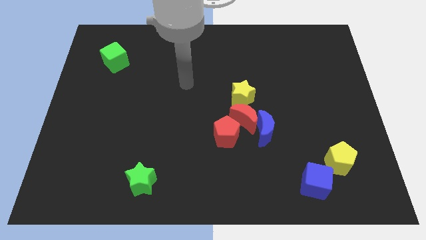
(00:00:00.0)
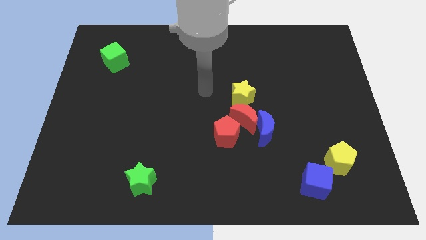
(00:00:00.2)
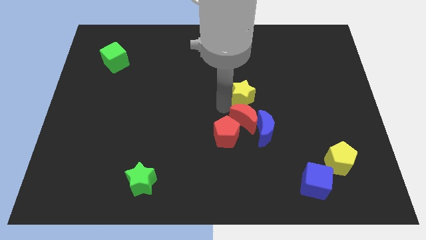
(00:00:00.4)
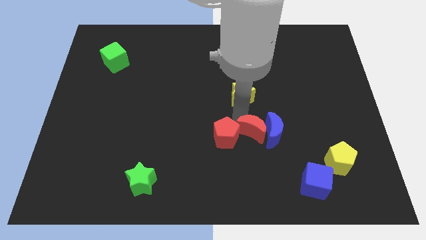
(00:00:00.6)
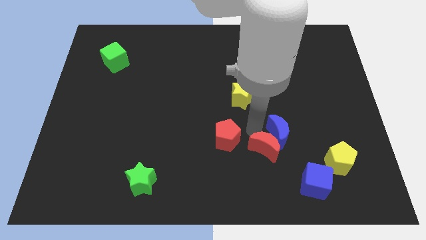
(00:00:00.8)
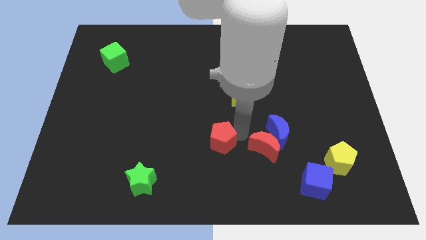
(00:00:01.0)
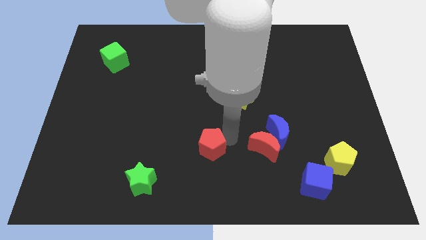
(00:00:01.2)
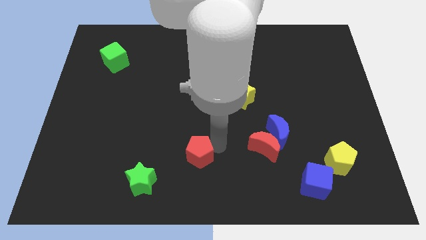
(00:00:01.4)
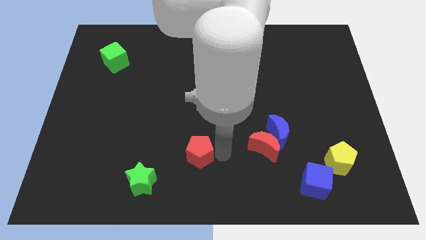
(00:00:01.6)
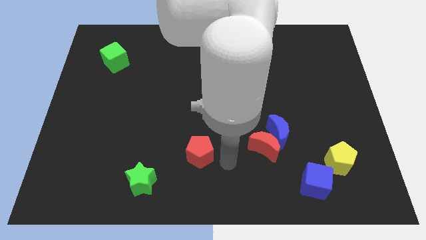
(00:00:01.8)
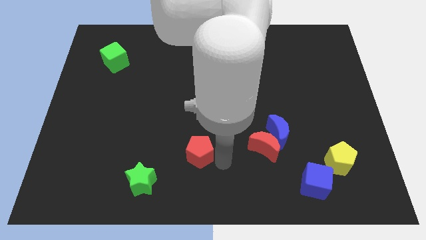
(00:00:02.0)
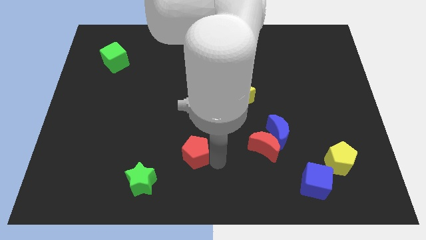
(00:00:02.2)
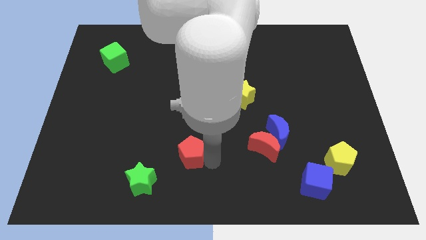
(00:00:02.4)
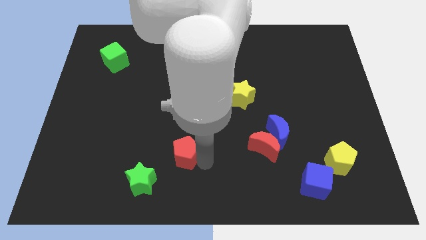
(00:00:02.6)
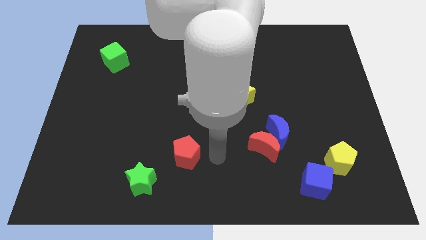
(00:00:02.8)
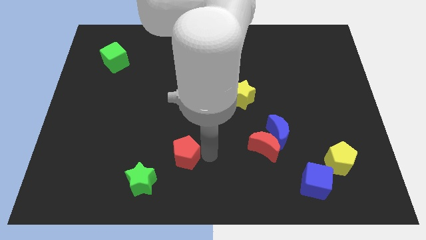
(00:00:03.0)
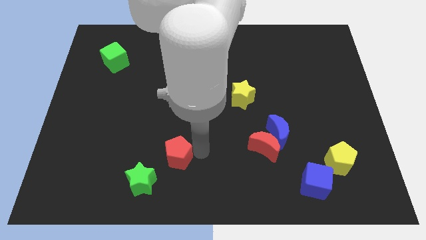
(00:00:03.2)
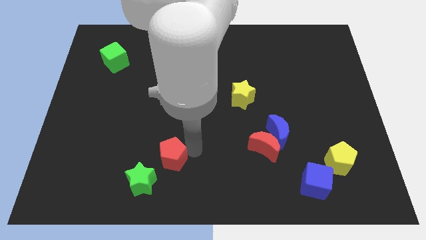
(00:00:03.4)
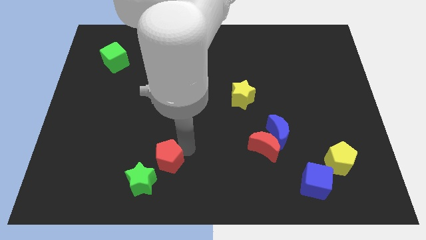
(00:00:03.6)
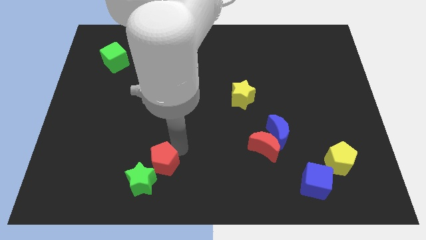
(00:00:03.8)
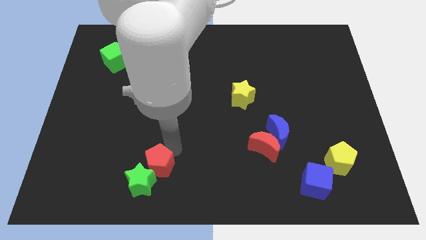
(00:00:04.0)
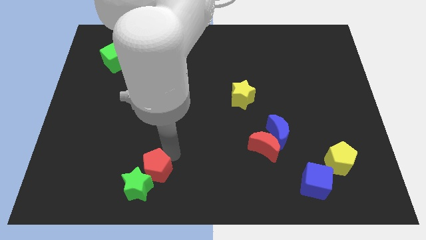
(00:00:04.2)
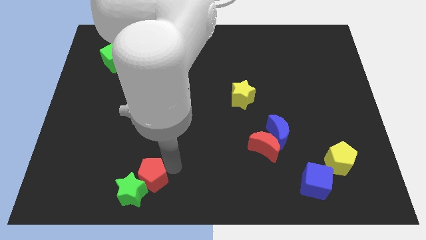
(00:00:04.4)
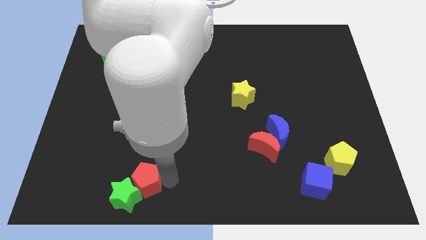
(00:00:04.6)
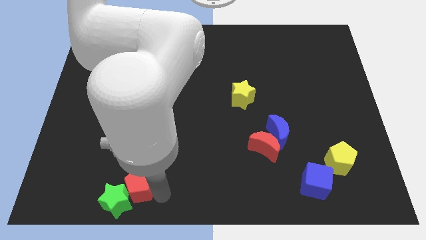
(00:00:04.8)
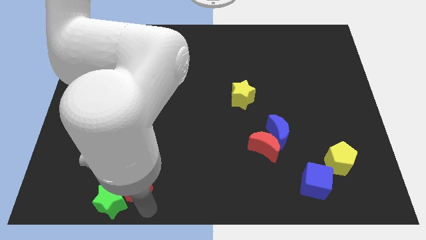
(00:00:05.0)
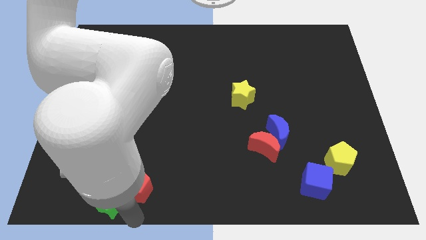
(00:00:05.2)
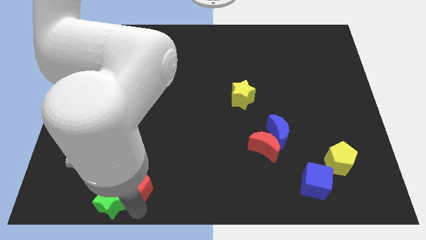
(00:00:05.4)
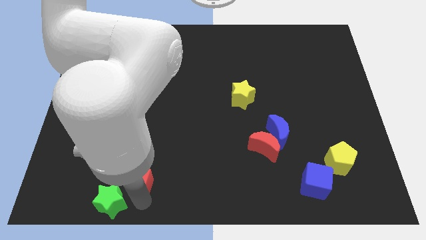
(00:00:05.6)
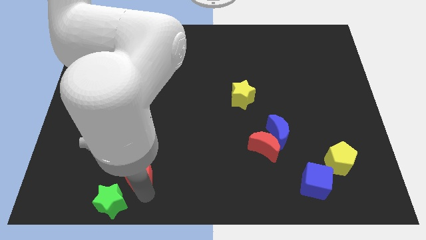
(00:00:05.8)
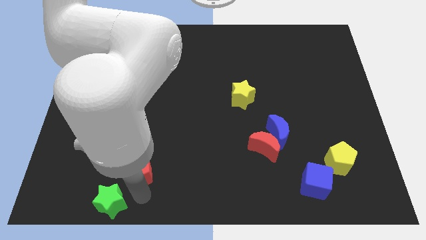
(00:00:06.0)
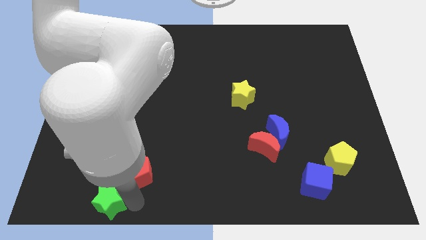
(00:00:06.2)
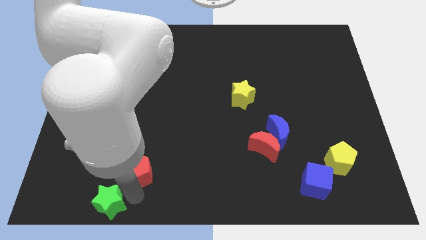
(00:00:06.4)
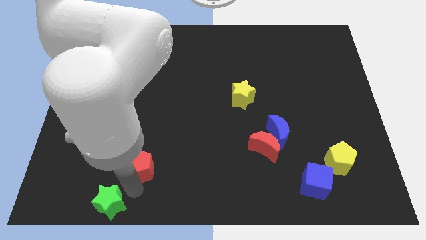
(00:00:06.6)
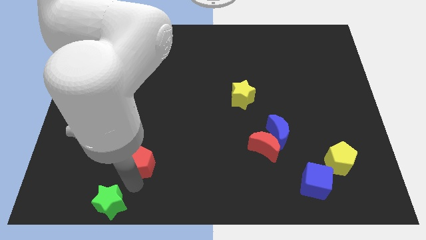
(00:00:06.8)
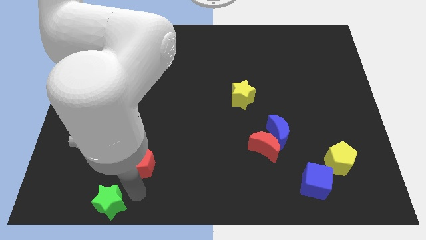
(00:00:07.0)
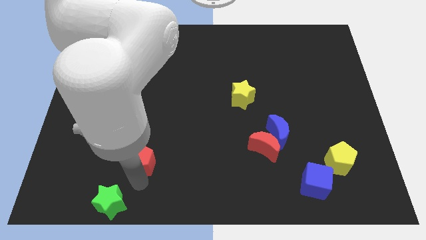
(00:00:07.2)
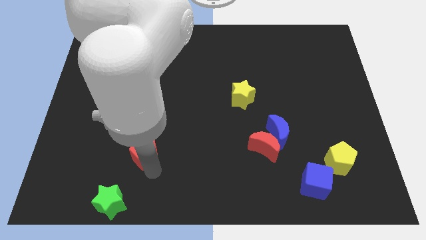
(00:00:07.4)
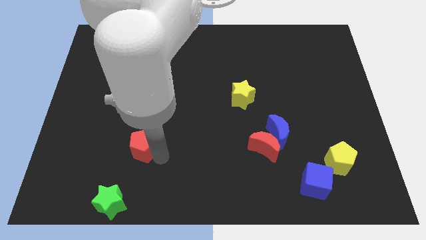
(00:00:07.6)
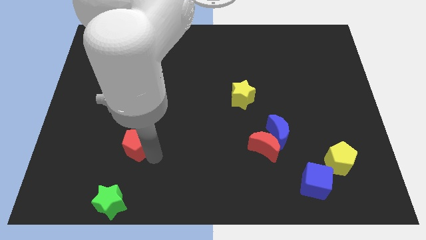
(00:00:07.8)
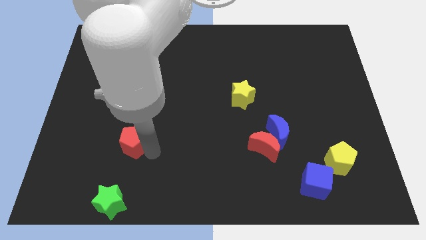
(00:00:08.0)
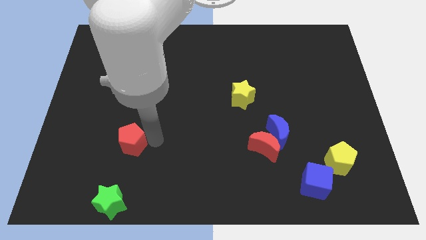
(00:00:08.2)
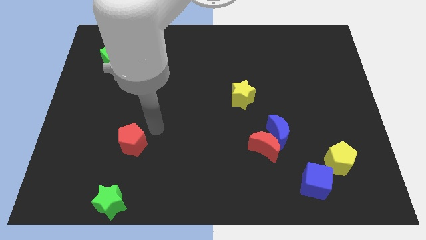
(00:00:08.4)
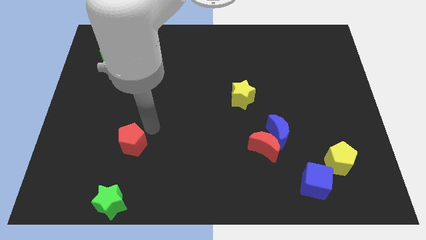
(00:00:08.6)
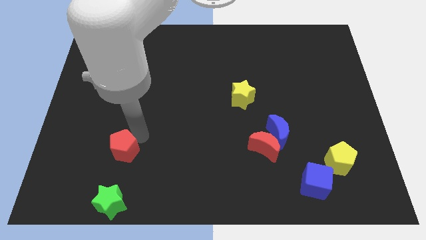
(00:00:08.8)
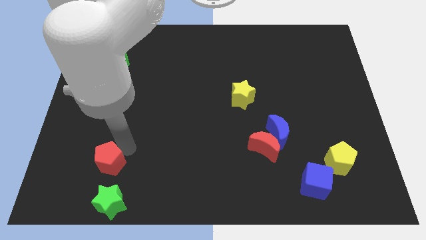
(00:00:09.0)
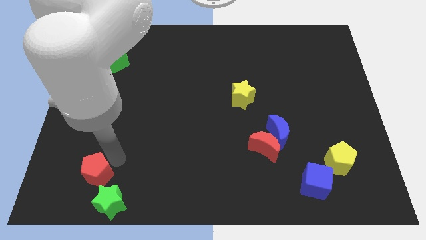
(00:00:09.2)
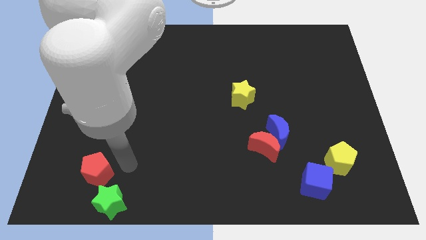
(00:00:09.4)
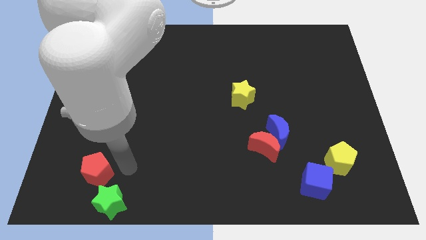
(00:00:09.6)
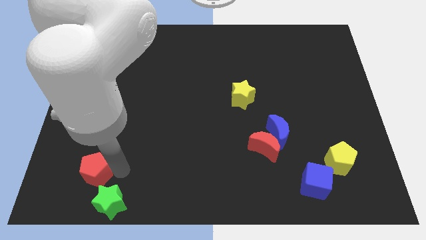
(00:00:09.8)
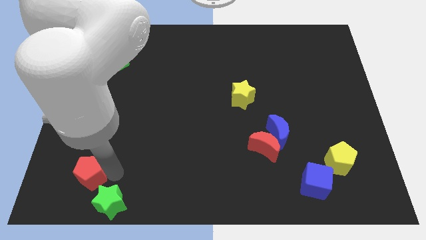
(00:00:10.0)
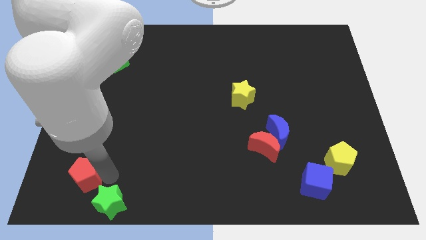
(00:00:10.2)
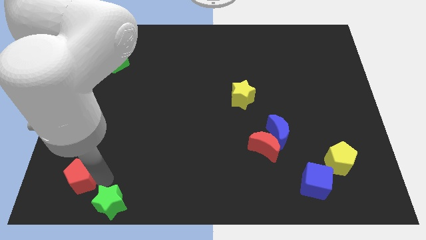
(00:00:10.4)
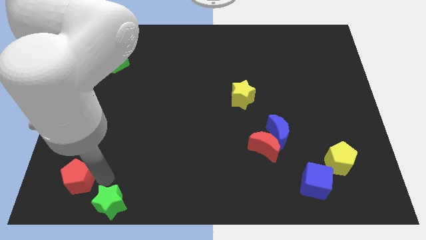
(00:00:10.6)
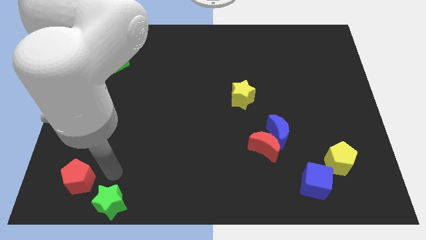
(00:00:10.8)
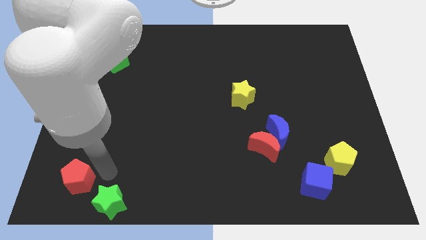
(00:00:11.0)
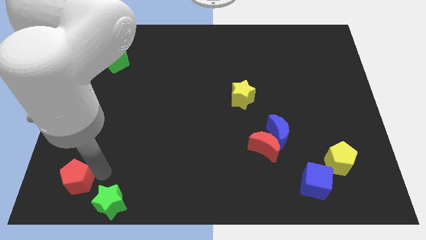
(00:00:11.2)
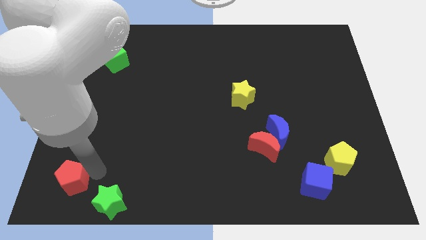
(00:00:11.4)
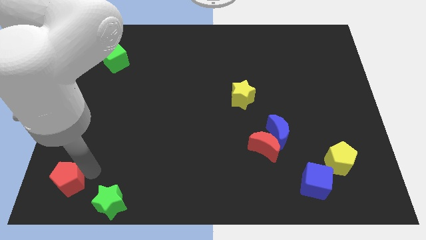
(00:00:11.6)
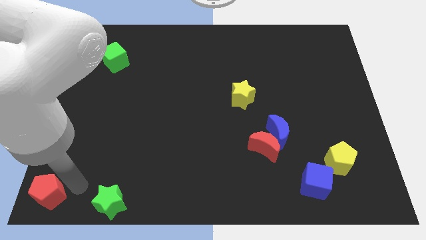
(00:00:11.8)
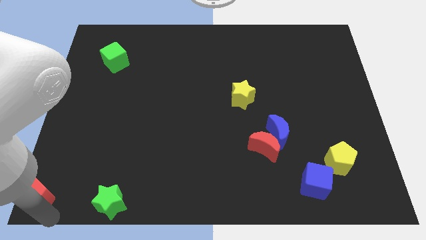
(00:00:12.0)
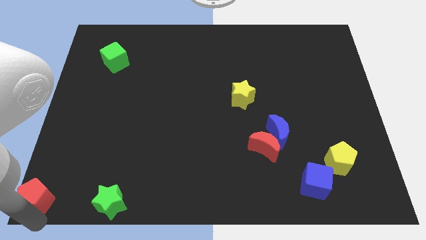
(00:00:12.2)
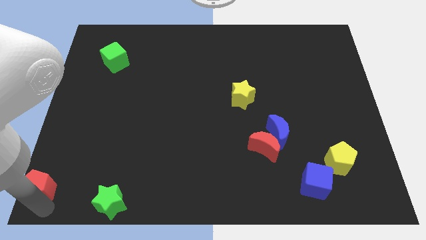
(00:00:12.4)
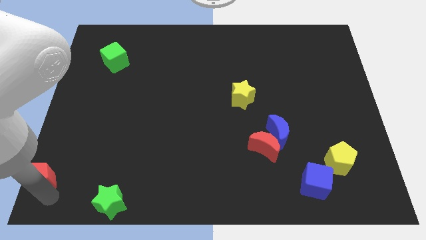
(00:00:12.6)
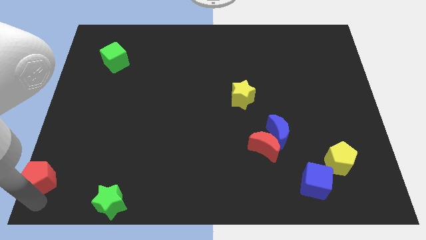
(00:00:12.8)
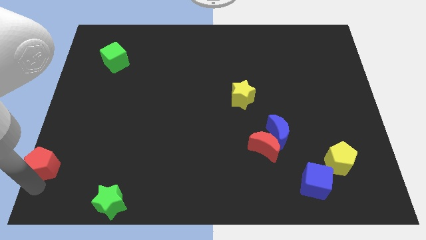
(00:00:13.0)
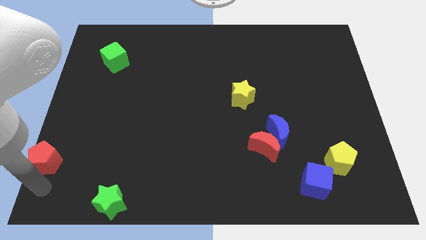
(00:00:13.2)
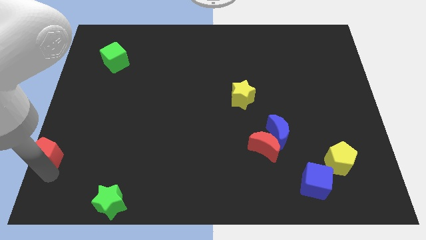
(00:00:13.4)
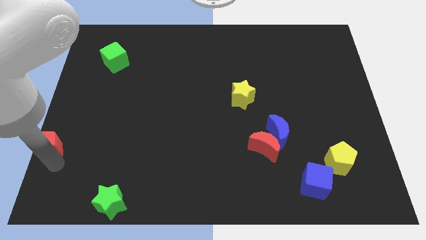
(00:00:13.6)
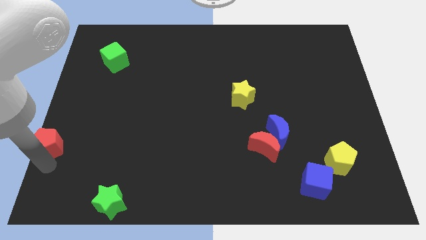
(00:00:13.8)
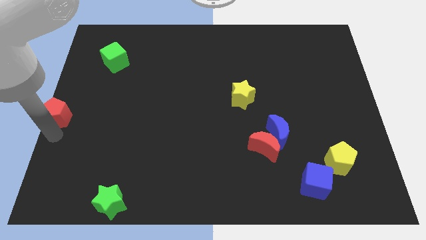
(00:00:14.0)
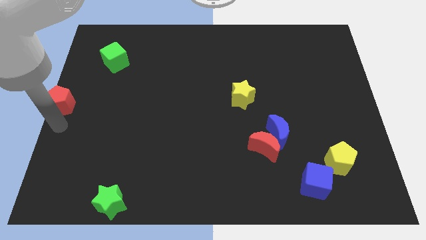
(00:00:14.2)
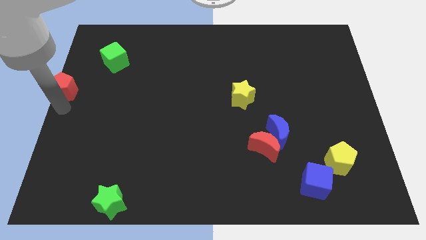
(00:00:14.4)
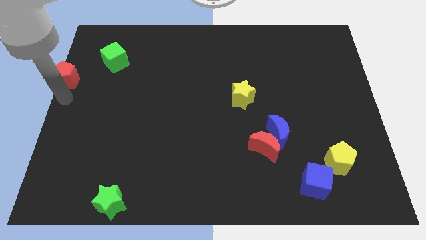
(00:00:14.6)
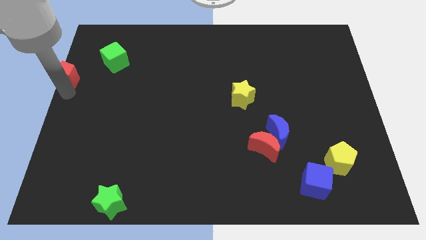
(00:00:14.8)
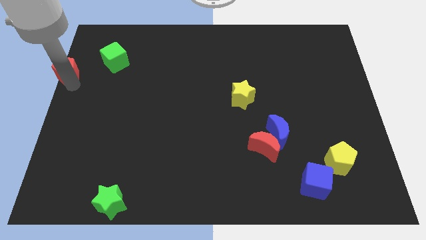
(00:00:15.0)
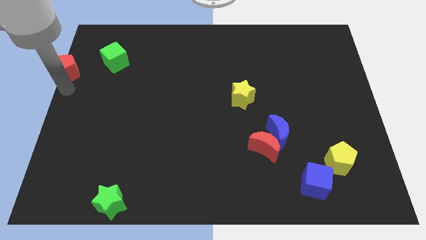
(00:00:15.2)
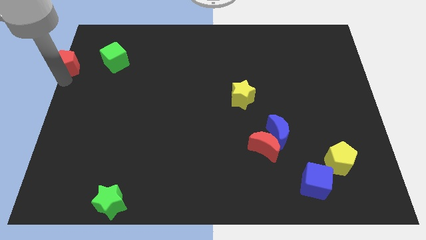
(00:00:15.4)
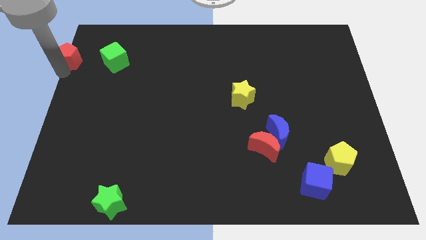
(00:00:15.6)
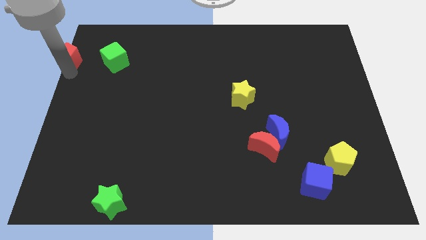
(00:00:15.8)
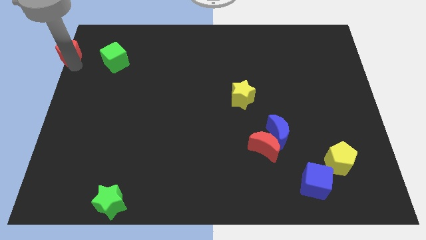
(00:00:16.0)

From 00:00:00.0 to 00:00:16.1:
move the red pentagon to the top left
